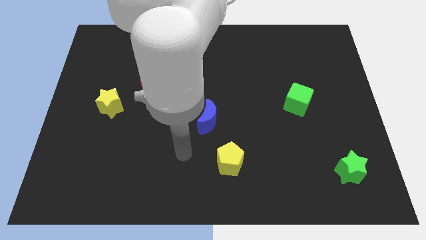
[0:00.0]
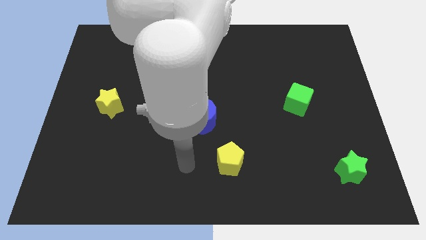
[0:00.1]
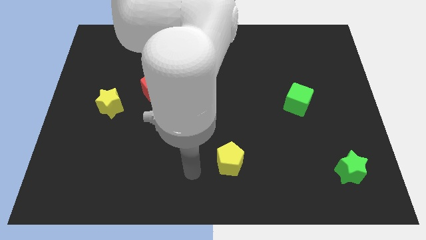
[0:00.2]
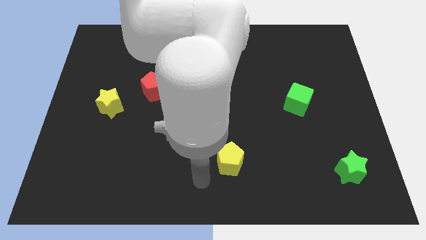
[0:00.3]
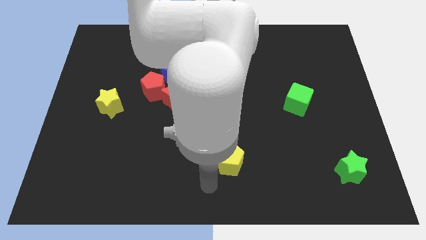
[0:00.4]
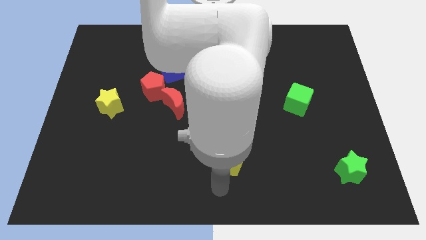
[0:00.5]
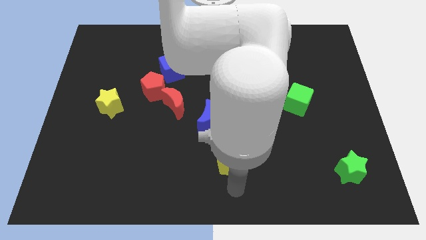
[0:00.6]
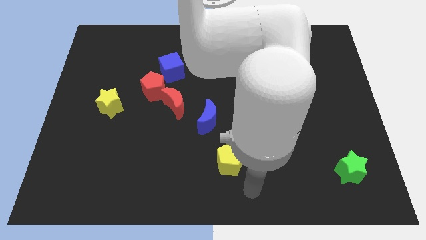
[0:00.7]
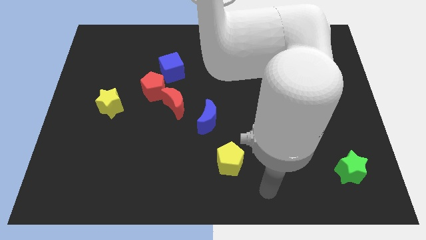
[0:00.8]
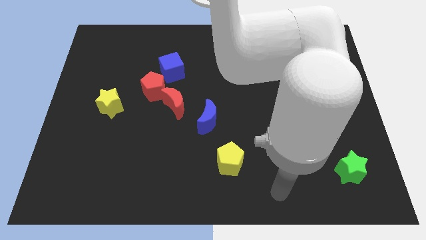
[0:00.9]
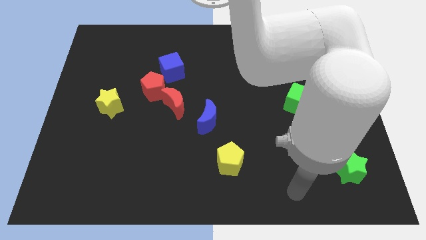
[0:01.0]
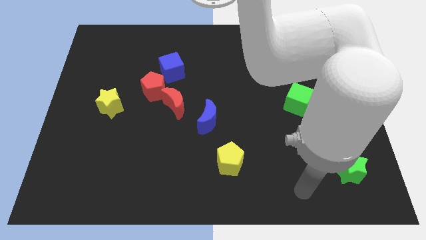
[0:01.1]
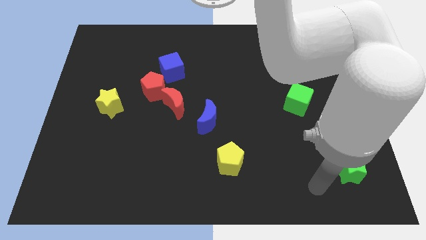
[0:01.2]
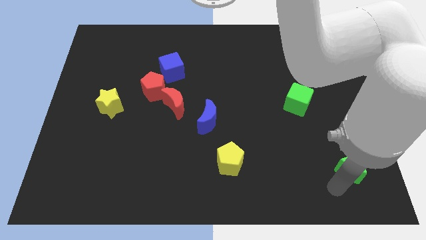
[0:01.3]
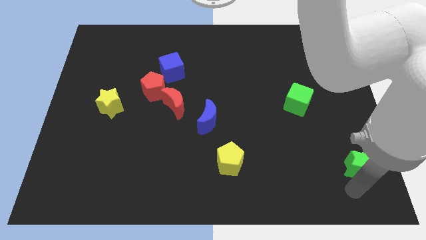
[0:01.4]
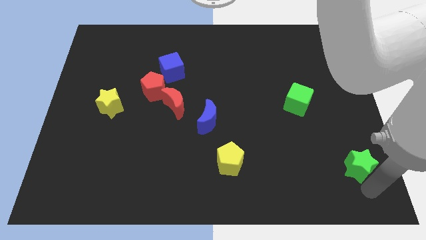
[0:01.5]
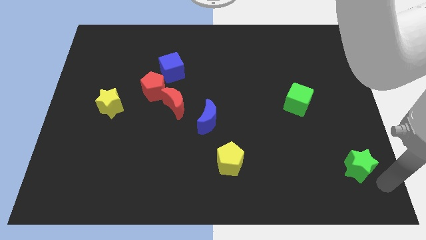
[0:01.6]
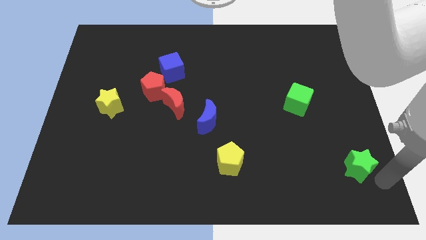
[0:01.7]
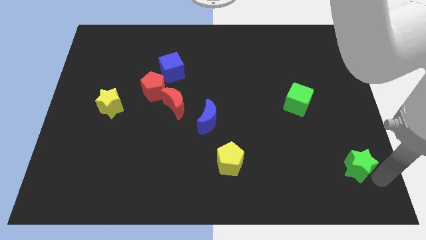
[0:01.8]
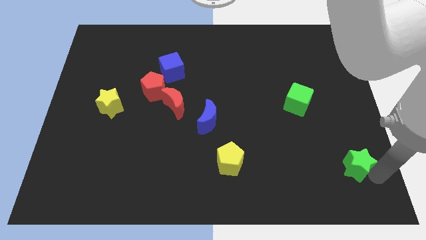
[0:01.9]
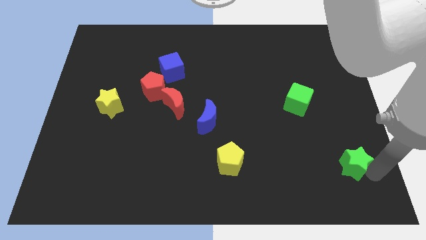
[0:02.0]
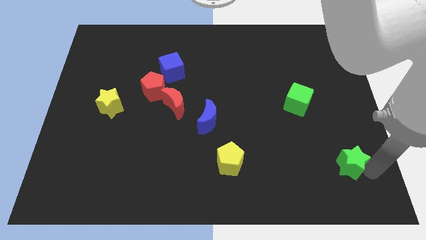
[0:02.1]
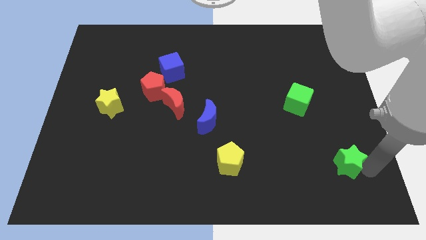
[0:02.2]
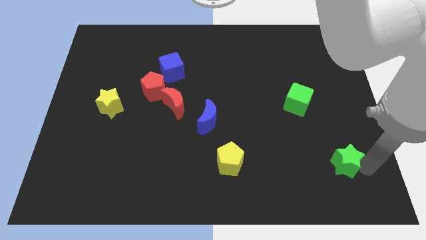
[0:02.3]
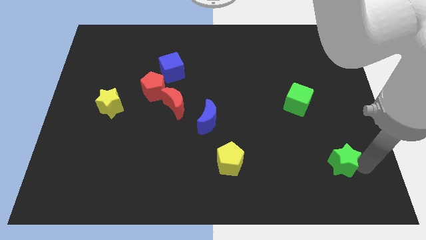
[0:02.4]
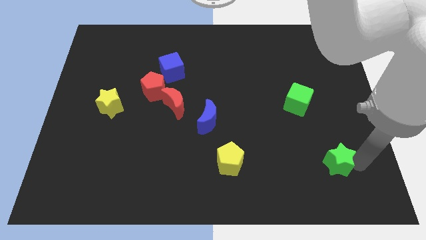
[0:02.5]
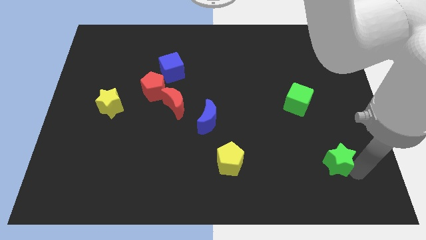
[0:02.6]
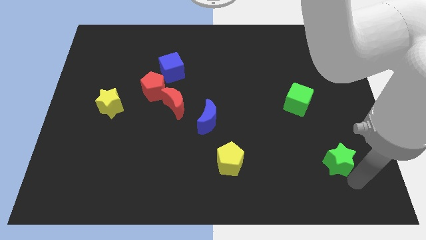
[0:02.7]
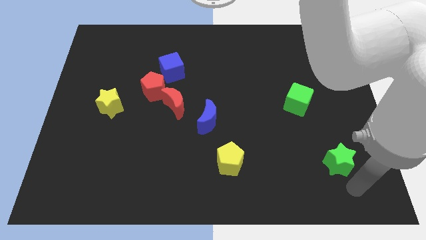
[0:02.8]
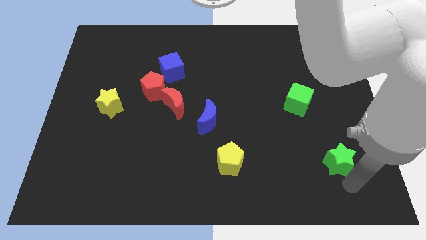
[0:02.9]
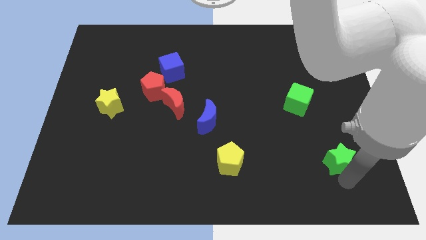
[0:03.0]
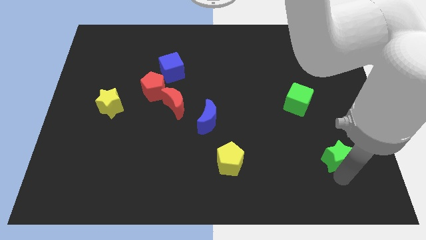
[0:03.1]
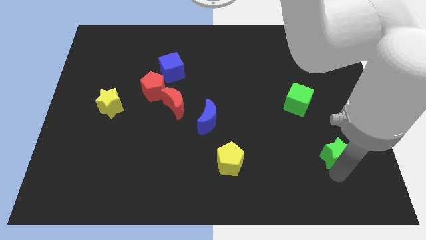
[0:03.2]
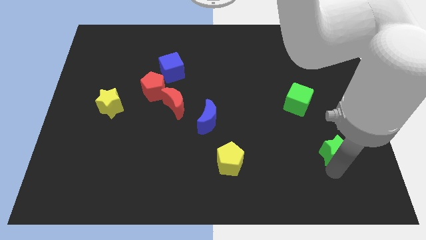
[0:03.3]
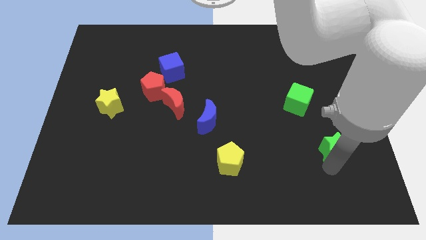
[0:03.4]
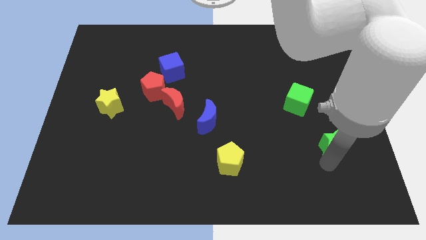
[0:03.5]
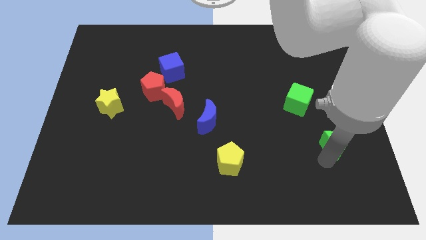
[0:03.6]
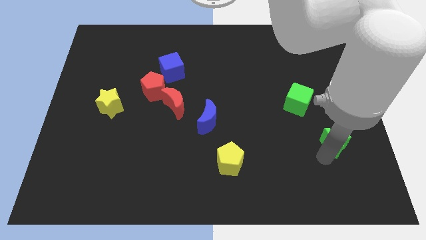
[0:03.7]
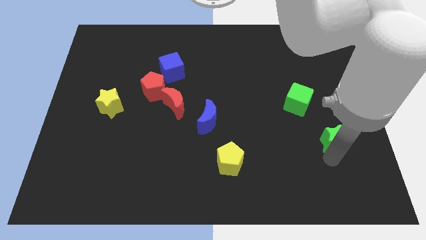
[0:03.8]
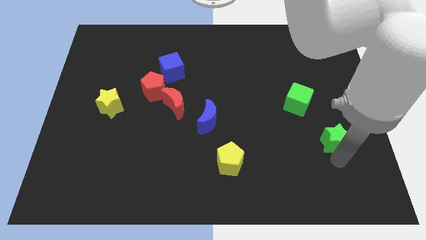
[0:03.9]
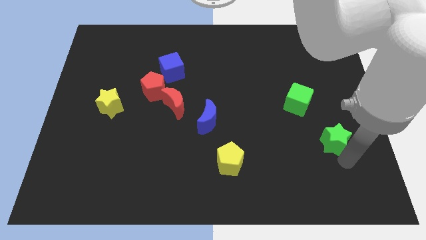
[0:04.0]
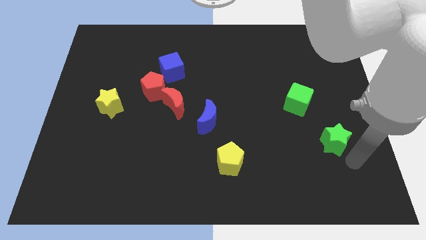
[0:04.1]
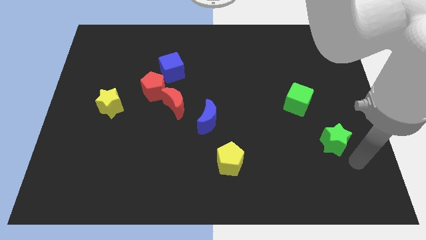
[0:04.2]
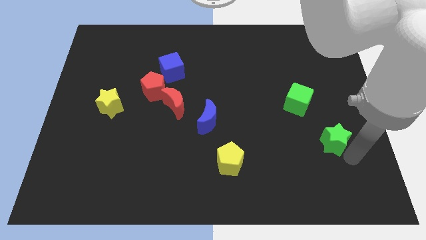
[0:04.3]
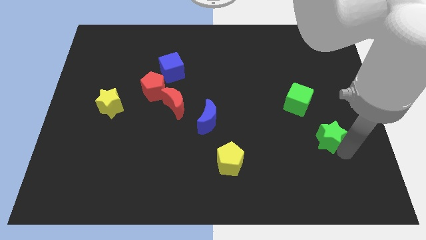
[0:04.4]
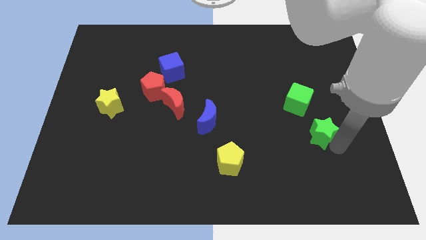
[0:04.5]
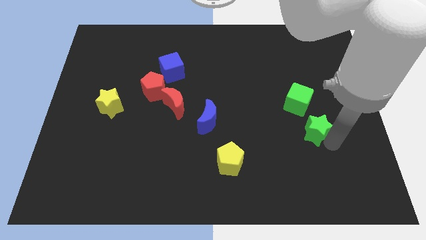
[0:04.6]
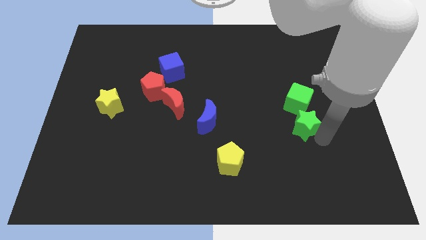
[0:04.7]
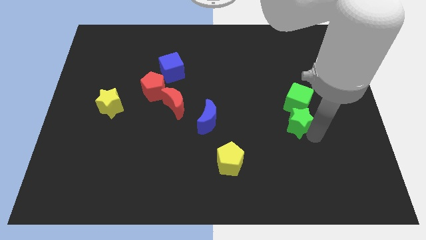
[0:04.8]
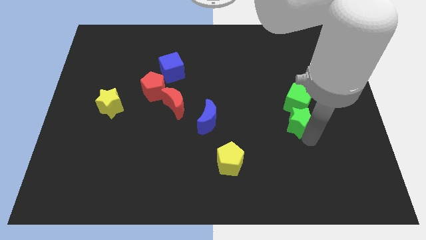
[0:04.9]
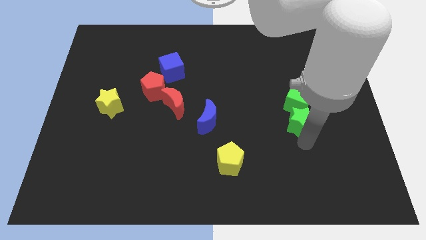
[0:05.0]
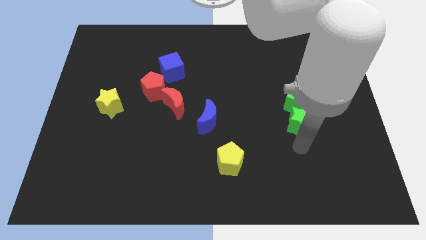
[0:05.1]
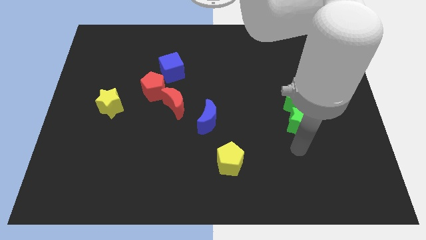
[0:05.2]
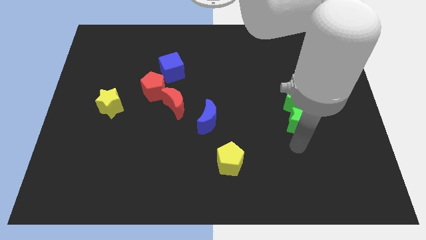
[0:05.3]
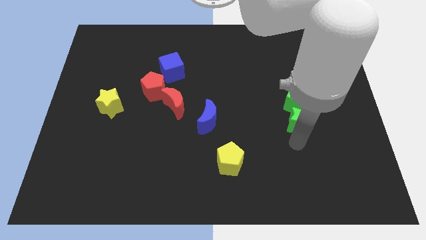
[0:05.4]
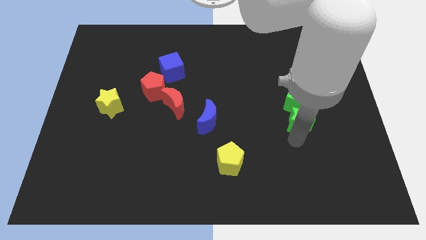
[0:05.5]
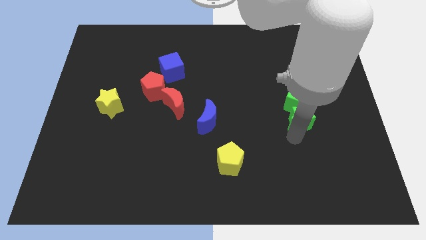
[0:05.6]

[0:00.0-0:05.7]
slide the green star to the green cube

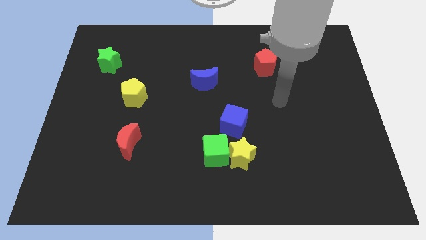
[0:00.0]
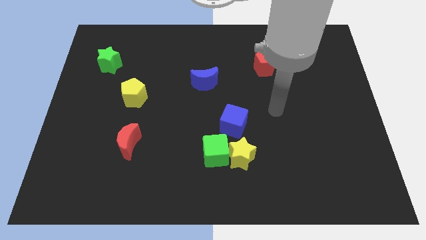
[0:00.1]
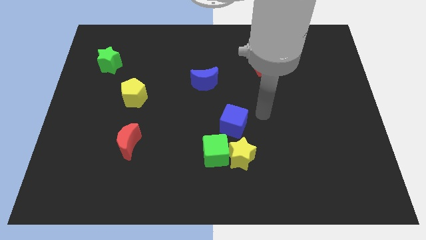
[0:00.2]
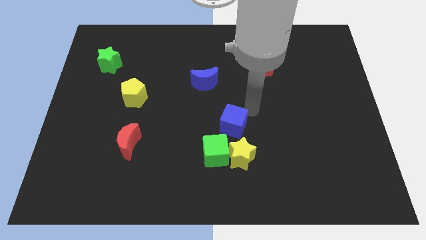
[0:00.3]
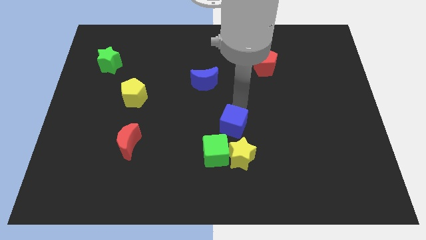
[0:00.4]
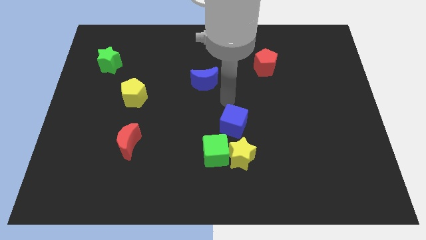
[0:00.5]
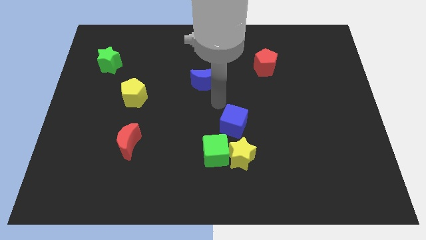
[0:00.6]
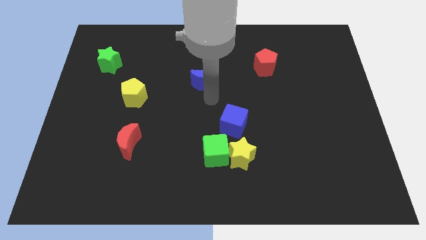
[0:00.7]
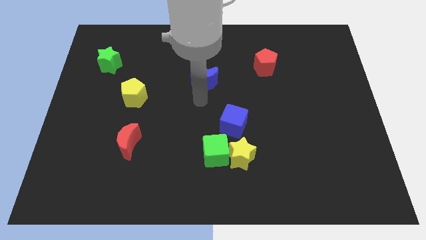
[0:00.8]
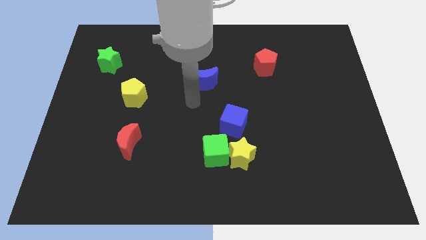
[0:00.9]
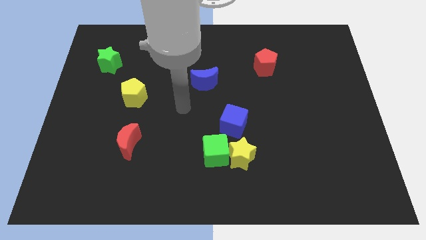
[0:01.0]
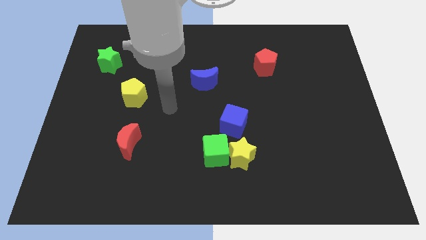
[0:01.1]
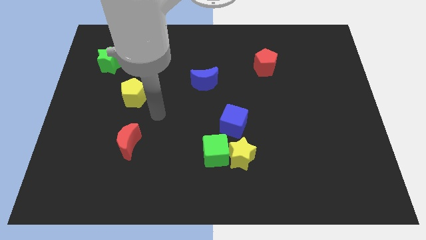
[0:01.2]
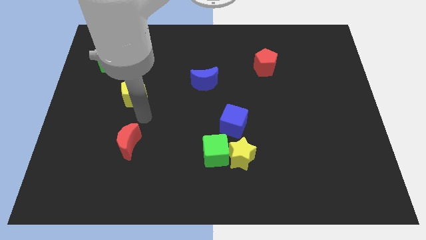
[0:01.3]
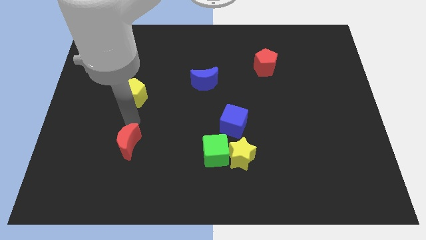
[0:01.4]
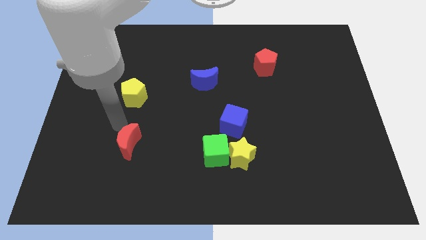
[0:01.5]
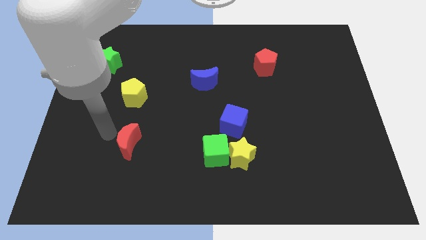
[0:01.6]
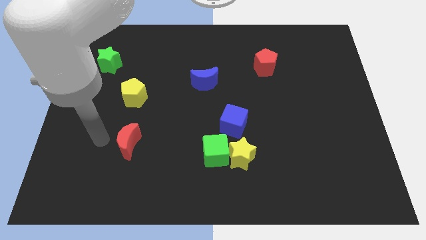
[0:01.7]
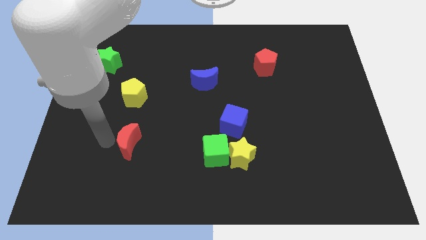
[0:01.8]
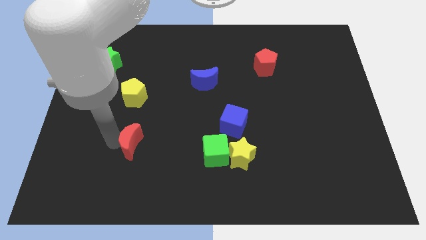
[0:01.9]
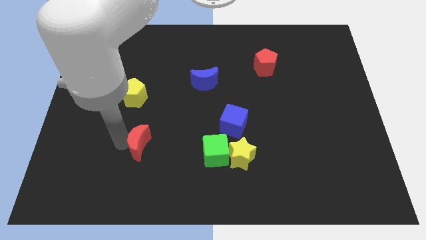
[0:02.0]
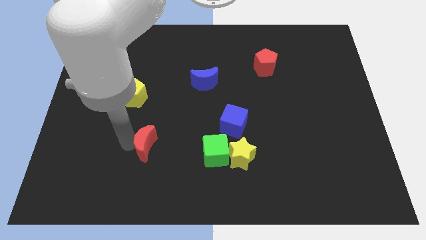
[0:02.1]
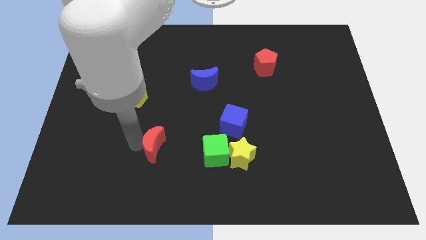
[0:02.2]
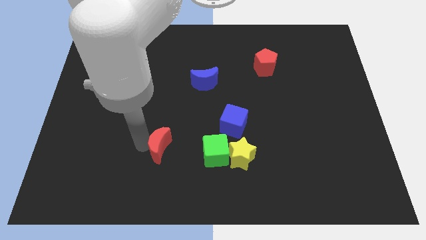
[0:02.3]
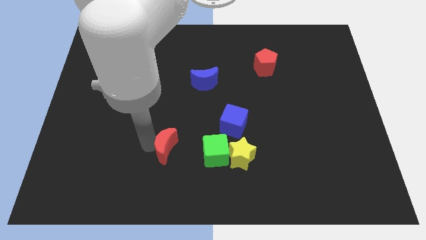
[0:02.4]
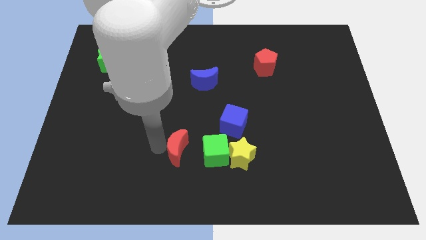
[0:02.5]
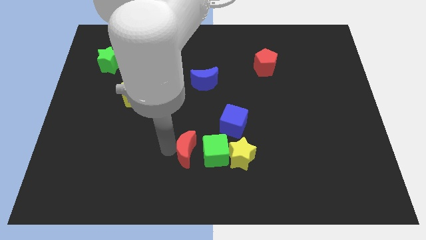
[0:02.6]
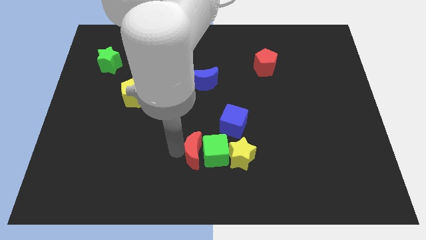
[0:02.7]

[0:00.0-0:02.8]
put the red moon next to the green cube
